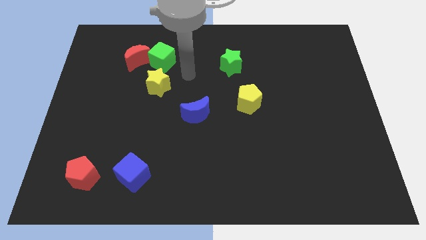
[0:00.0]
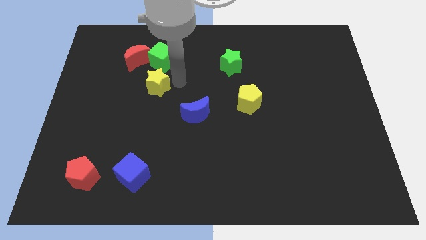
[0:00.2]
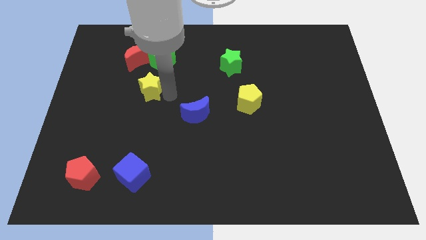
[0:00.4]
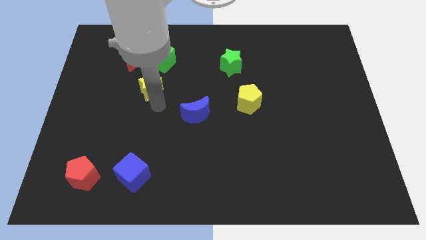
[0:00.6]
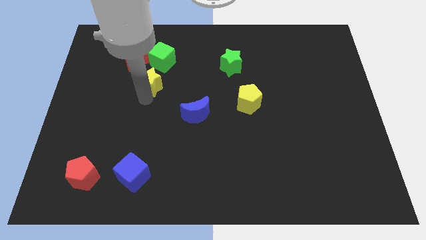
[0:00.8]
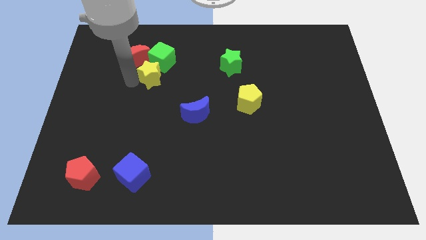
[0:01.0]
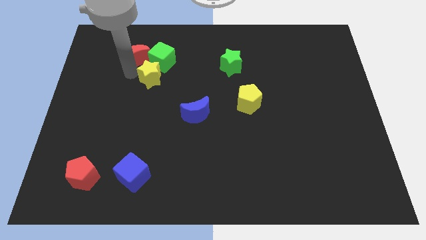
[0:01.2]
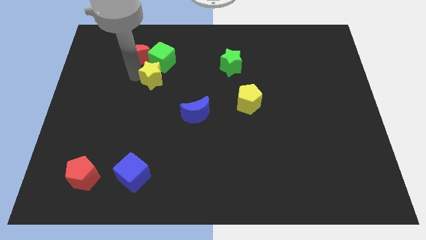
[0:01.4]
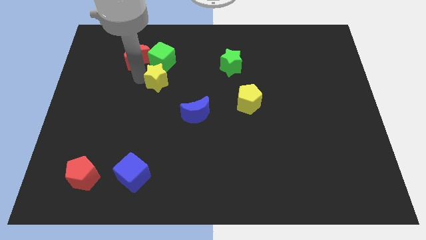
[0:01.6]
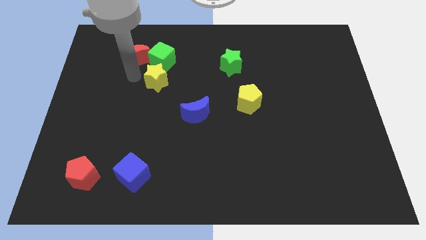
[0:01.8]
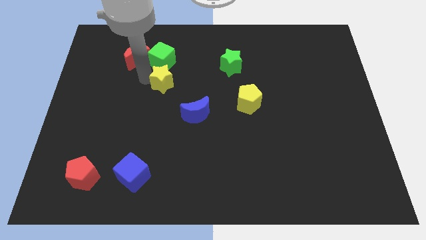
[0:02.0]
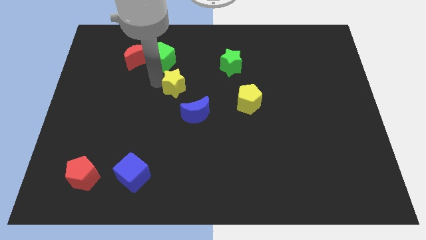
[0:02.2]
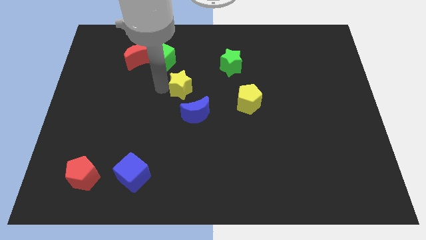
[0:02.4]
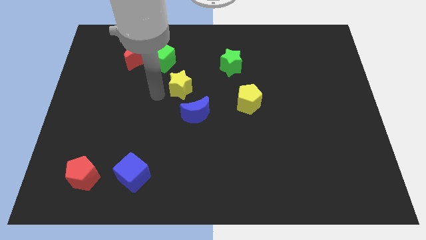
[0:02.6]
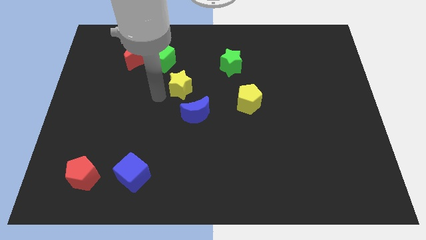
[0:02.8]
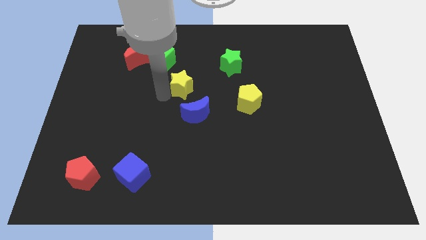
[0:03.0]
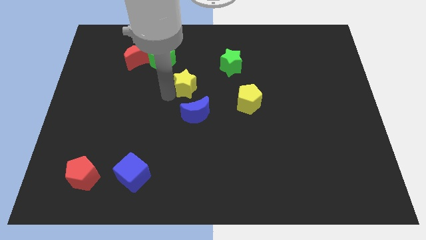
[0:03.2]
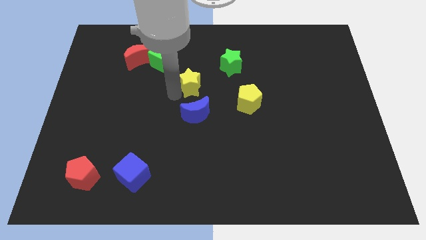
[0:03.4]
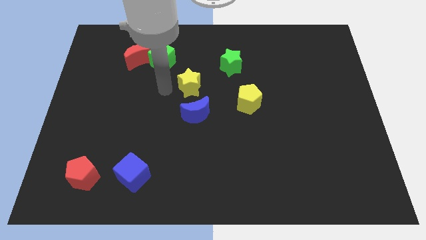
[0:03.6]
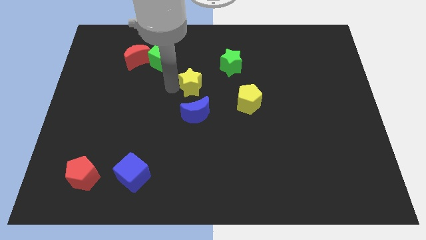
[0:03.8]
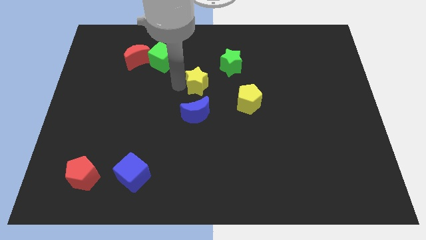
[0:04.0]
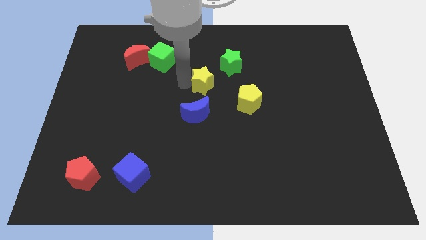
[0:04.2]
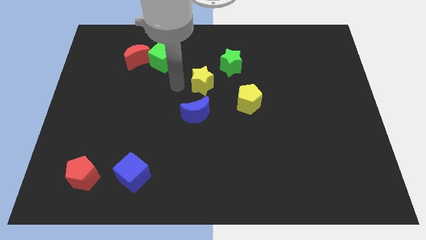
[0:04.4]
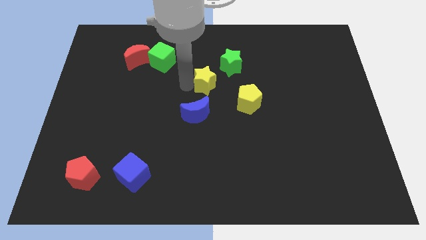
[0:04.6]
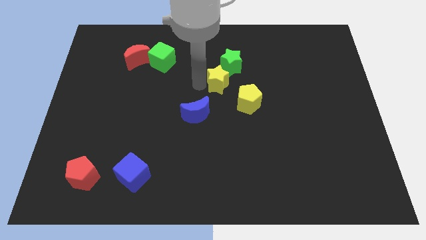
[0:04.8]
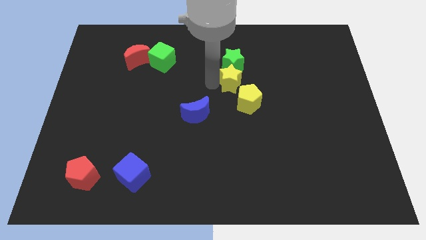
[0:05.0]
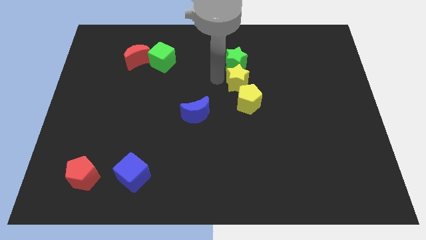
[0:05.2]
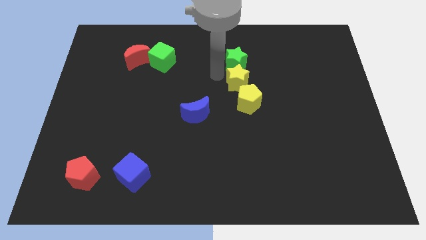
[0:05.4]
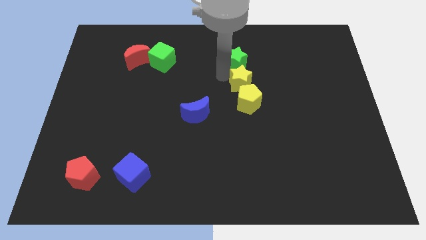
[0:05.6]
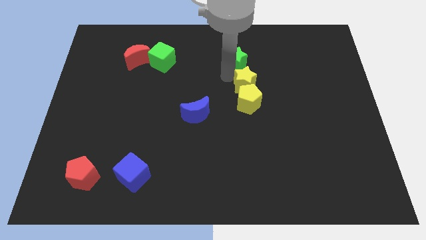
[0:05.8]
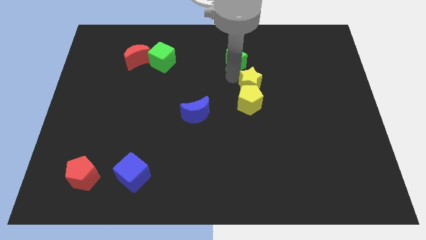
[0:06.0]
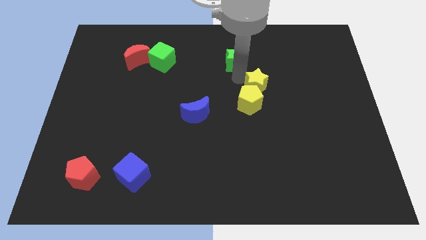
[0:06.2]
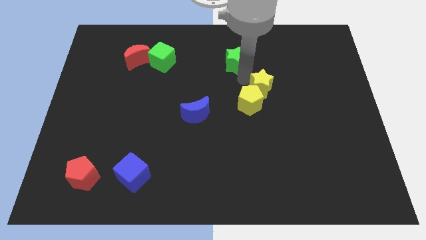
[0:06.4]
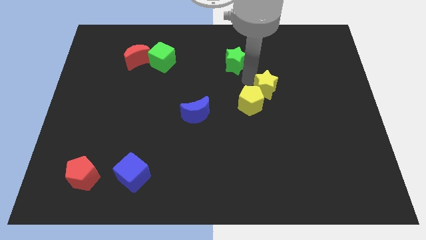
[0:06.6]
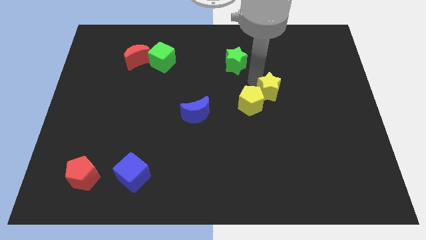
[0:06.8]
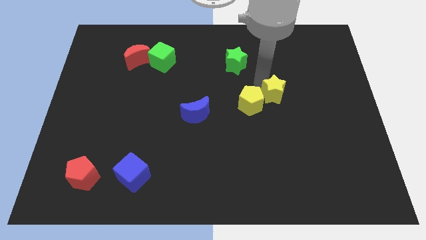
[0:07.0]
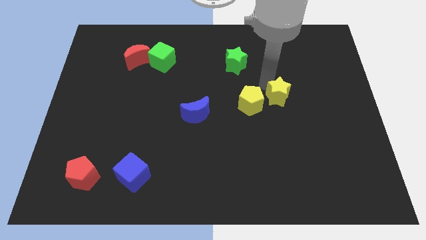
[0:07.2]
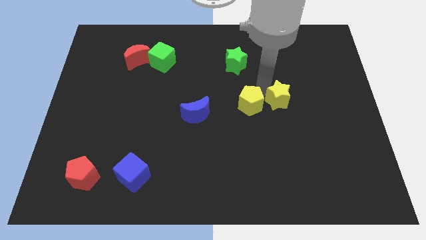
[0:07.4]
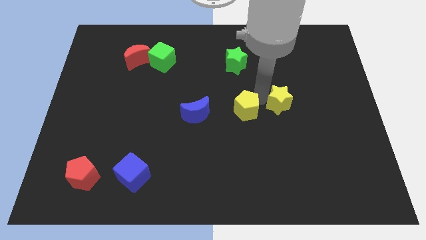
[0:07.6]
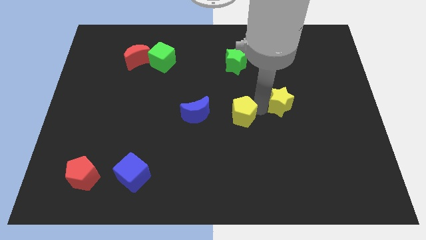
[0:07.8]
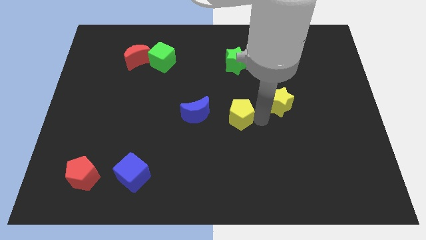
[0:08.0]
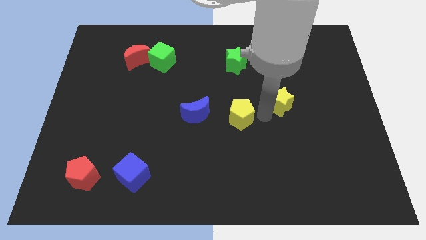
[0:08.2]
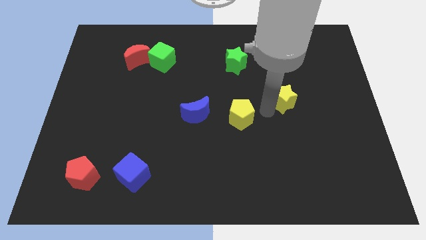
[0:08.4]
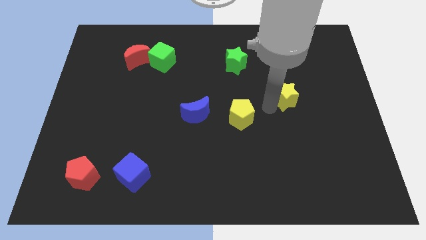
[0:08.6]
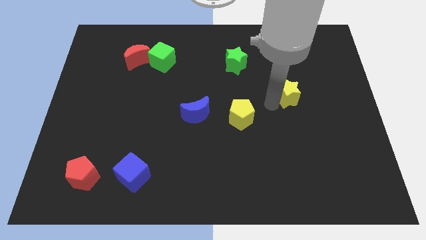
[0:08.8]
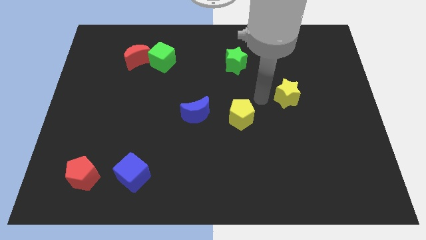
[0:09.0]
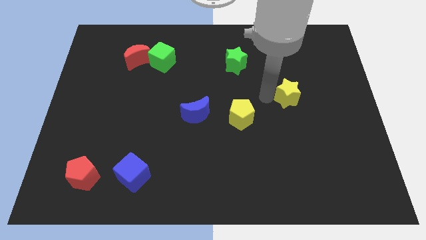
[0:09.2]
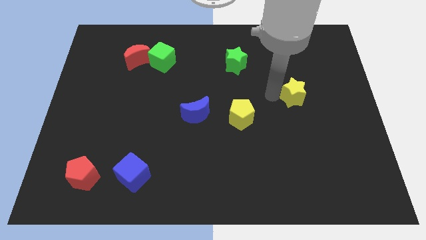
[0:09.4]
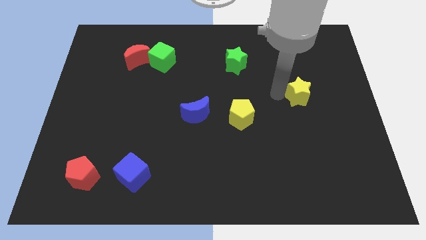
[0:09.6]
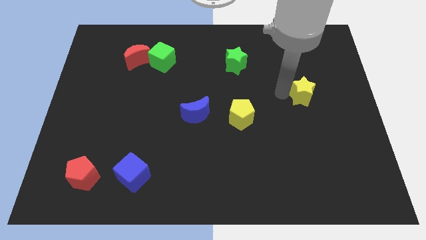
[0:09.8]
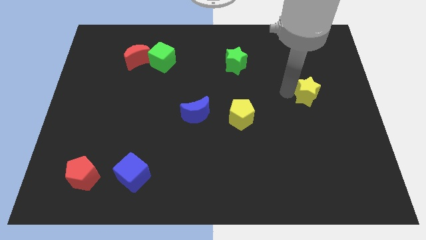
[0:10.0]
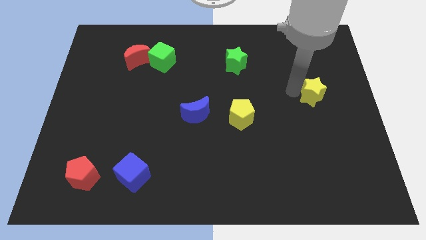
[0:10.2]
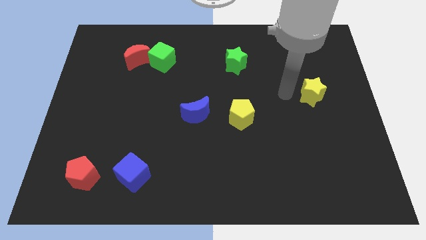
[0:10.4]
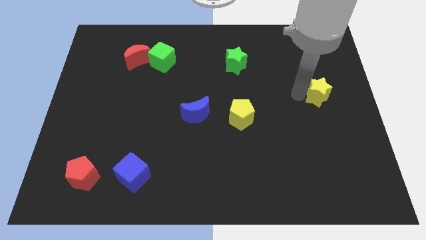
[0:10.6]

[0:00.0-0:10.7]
put the yellow star to the right side

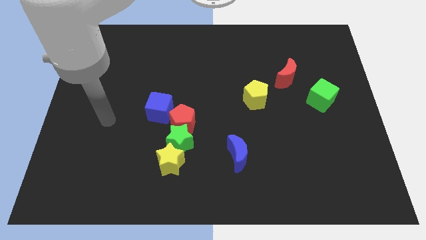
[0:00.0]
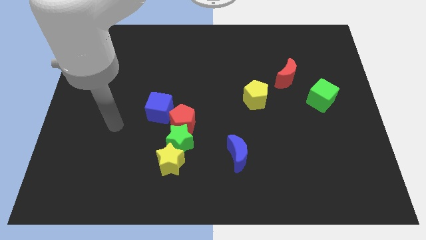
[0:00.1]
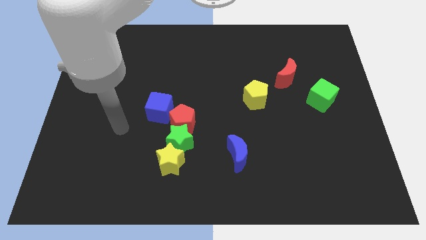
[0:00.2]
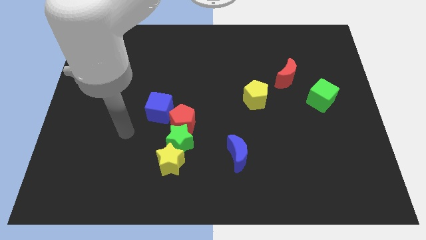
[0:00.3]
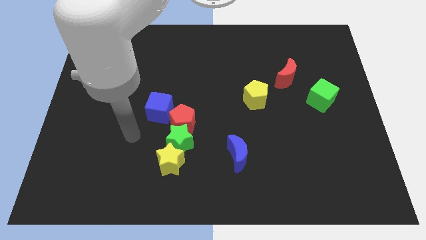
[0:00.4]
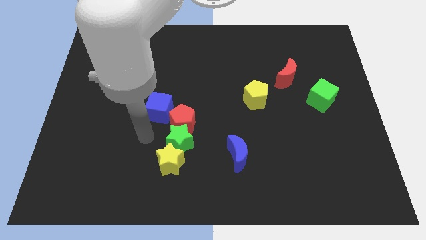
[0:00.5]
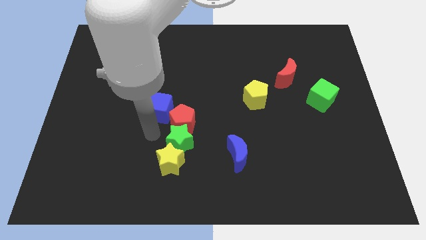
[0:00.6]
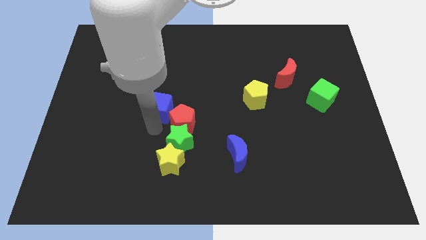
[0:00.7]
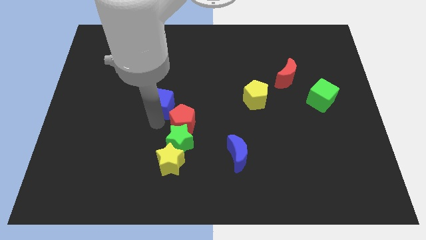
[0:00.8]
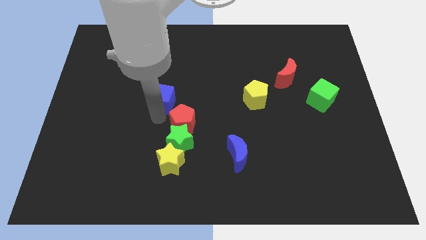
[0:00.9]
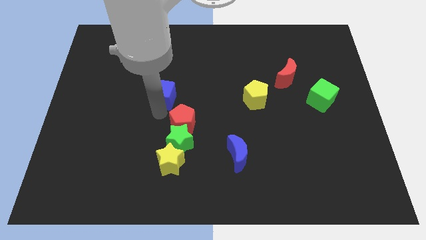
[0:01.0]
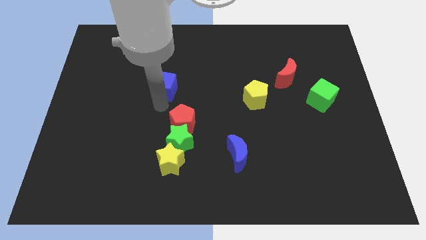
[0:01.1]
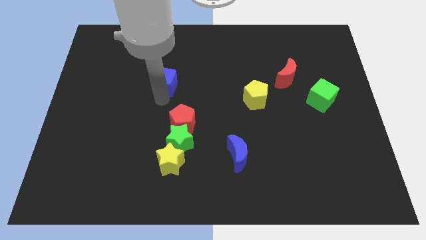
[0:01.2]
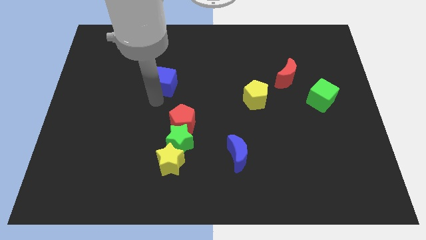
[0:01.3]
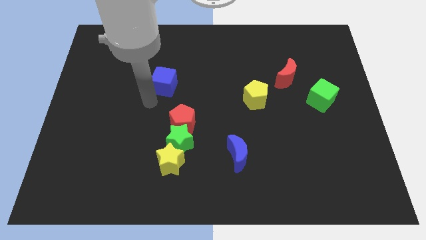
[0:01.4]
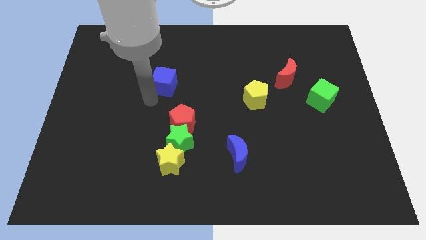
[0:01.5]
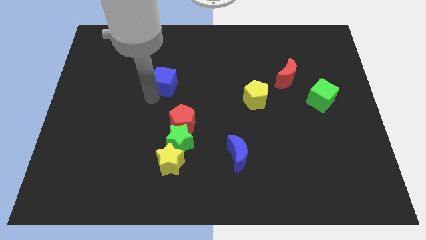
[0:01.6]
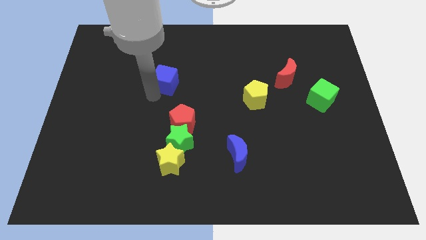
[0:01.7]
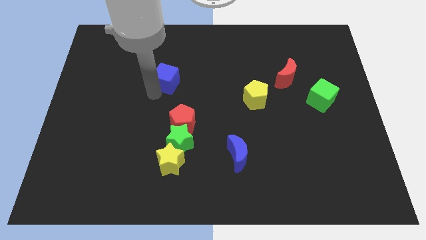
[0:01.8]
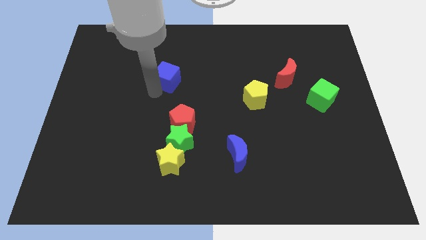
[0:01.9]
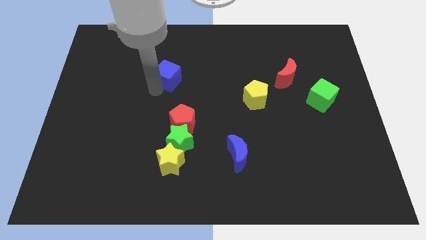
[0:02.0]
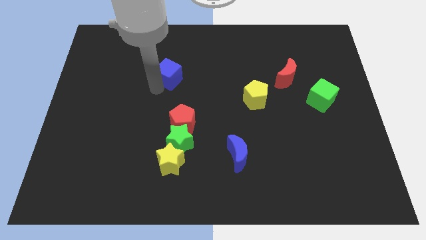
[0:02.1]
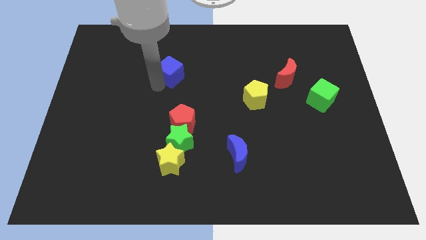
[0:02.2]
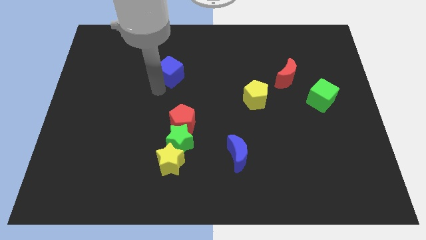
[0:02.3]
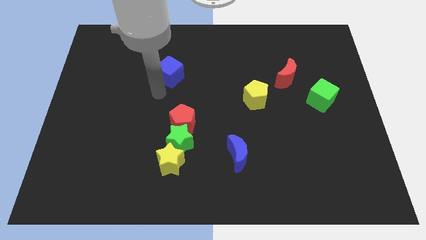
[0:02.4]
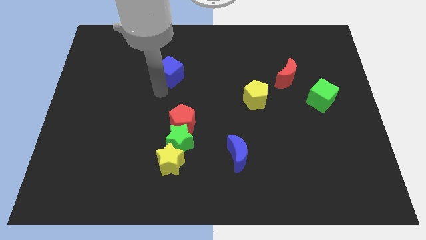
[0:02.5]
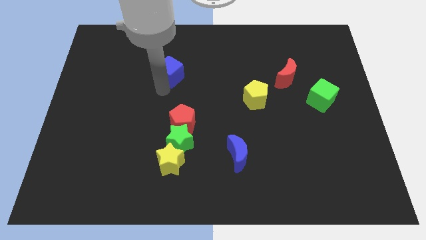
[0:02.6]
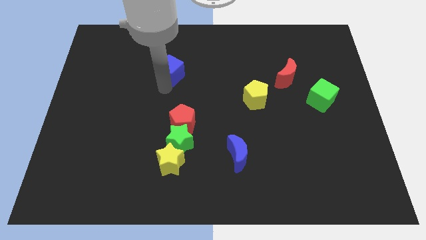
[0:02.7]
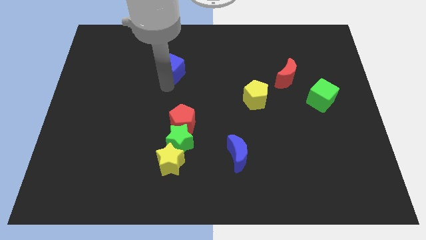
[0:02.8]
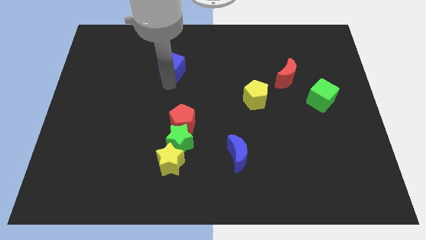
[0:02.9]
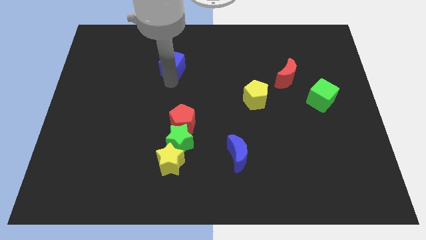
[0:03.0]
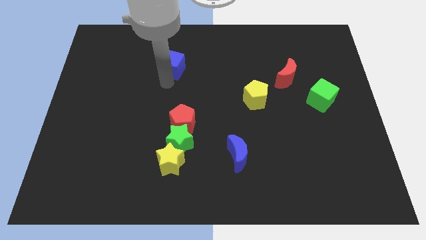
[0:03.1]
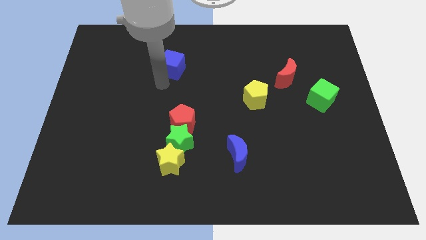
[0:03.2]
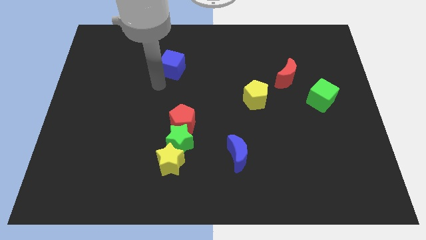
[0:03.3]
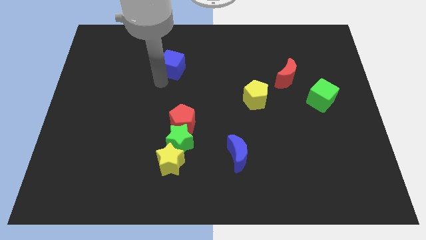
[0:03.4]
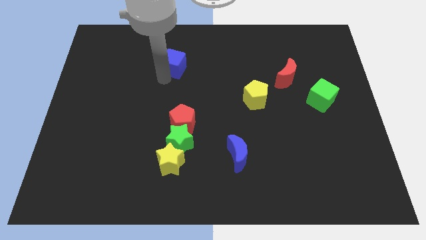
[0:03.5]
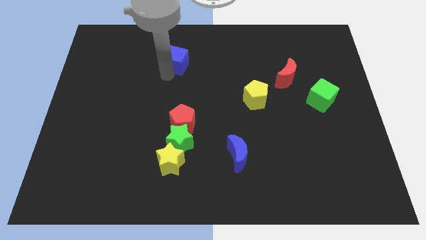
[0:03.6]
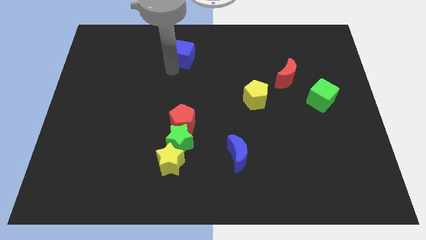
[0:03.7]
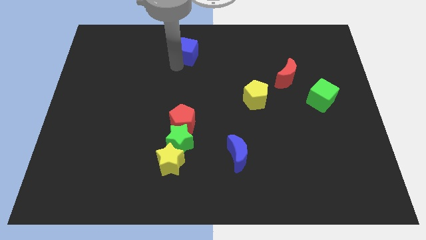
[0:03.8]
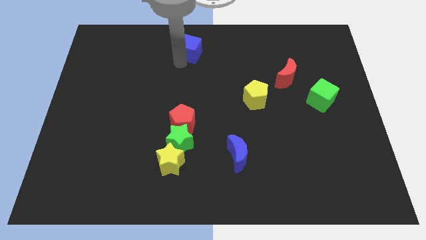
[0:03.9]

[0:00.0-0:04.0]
move the blue cube to the top
